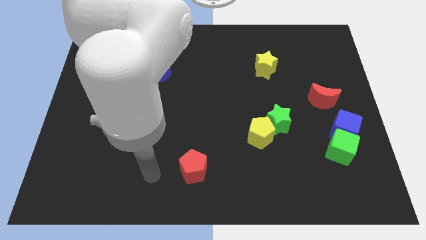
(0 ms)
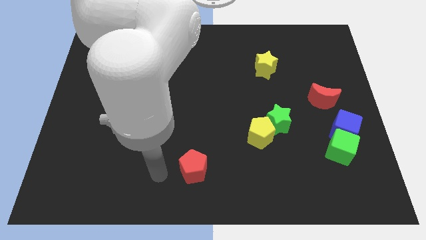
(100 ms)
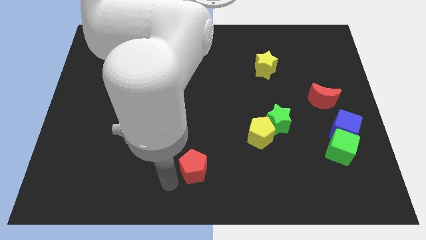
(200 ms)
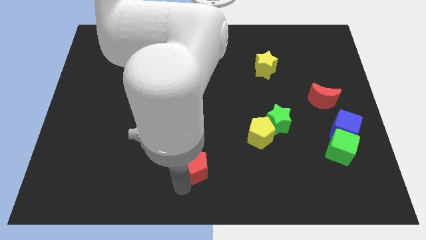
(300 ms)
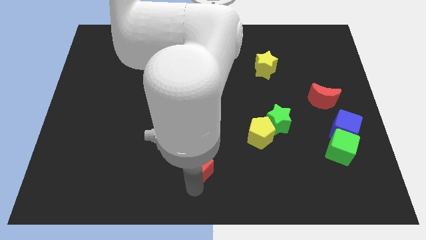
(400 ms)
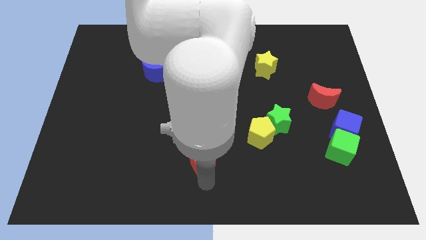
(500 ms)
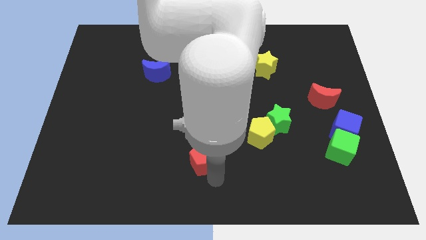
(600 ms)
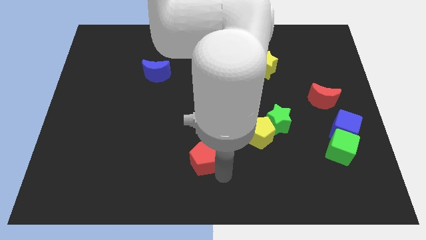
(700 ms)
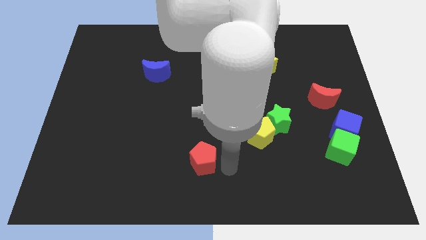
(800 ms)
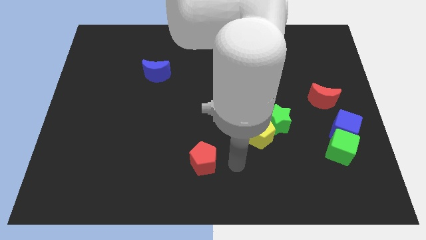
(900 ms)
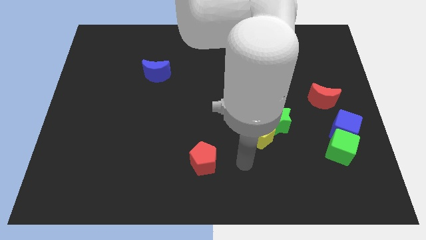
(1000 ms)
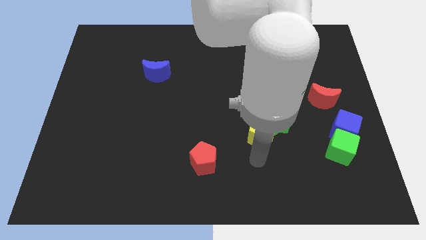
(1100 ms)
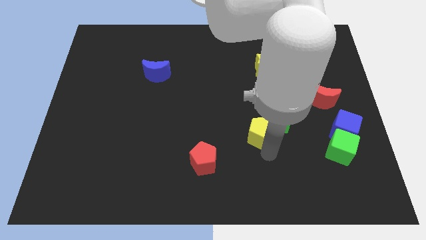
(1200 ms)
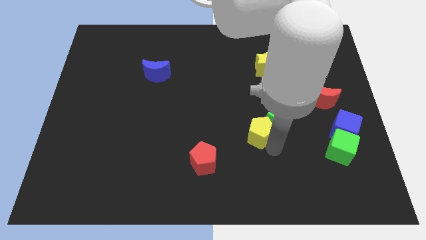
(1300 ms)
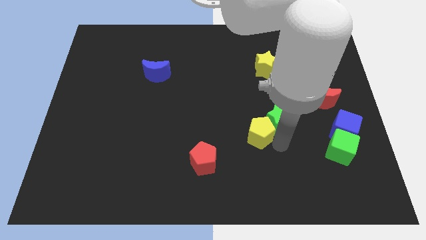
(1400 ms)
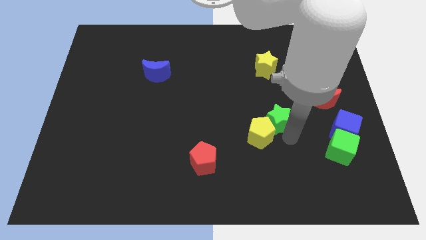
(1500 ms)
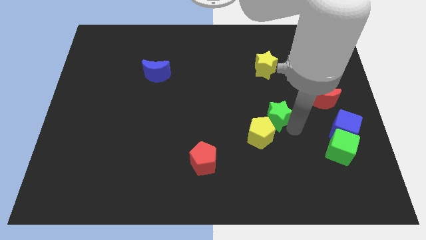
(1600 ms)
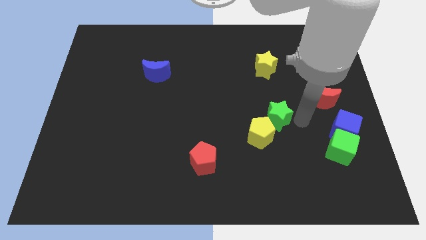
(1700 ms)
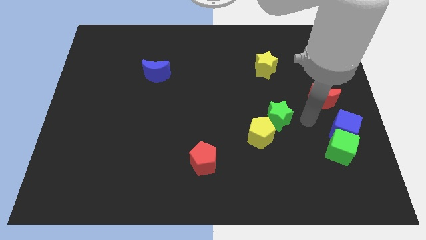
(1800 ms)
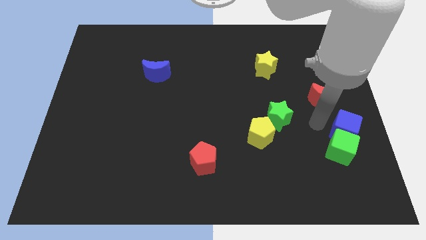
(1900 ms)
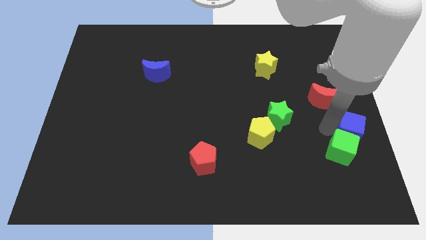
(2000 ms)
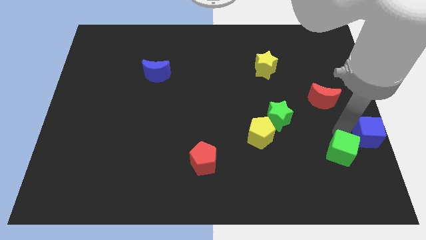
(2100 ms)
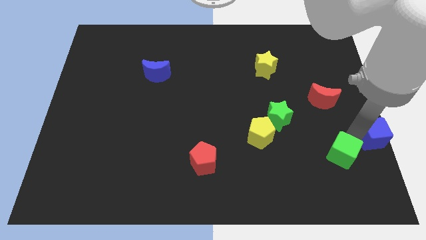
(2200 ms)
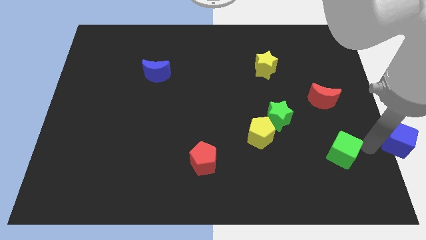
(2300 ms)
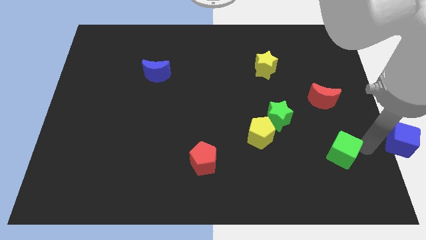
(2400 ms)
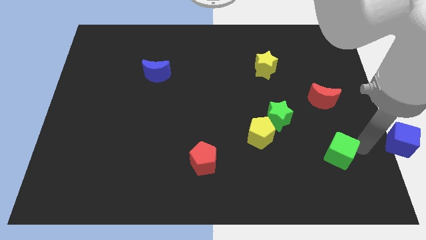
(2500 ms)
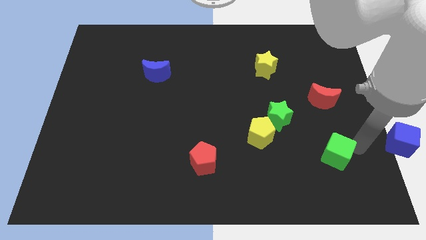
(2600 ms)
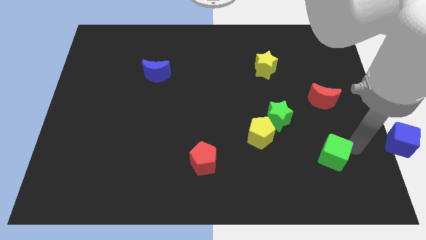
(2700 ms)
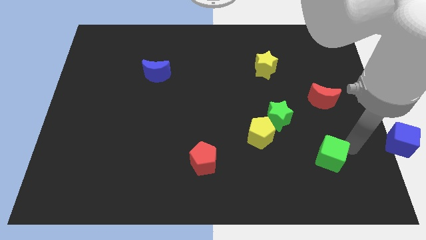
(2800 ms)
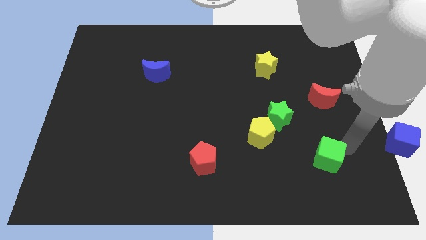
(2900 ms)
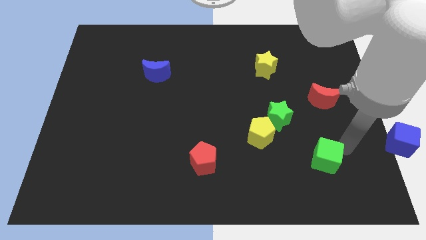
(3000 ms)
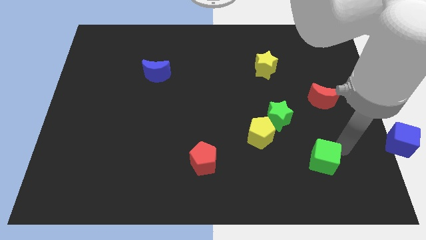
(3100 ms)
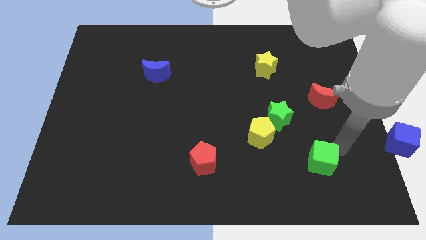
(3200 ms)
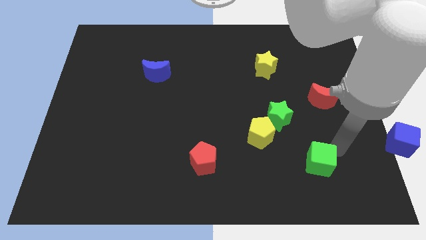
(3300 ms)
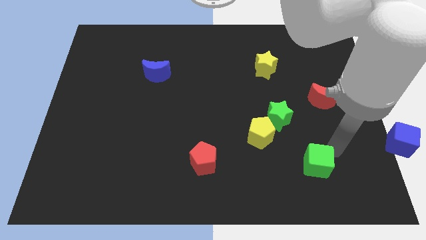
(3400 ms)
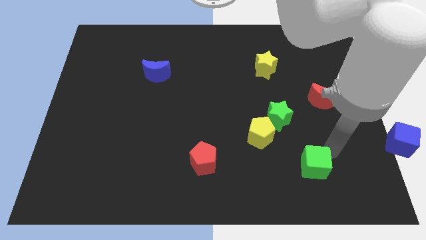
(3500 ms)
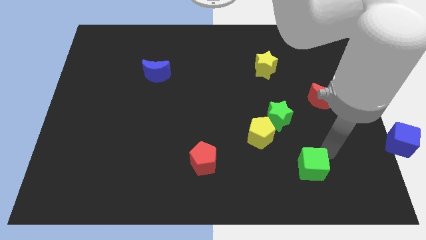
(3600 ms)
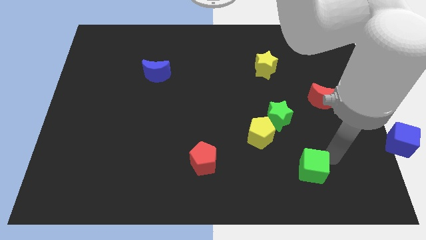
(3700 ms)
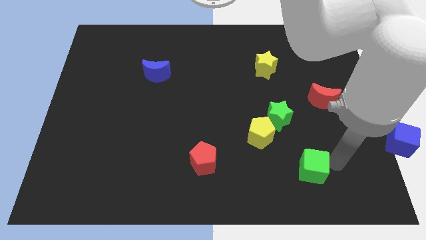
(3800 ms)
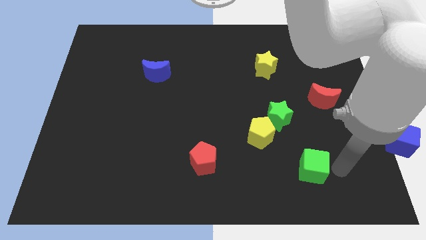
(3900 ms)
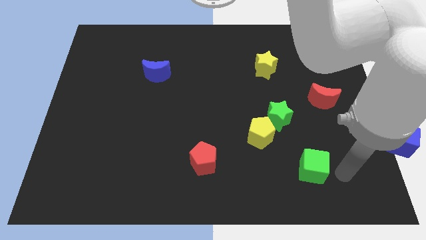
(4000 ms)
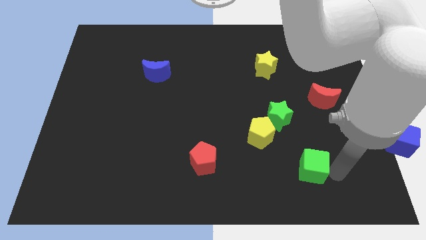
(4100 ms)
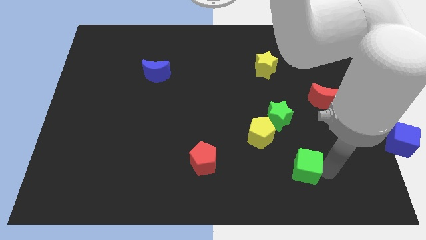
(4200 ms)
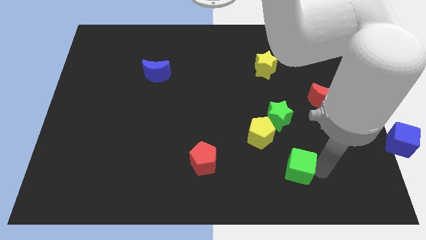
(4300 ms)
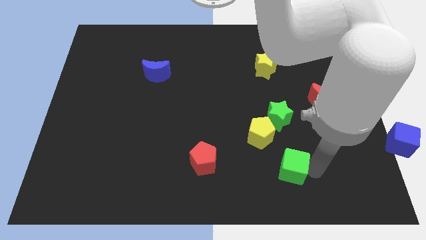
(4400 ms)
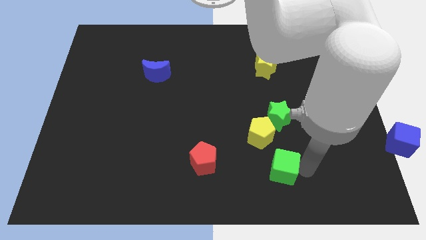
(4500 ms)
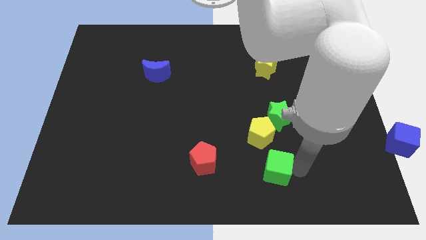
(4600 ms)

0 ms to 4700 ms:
push the green cube to the right of the red pentagon

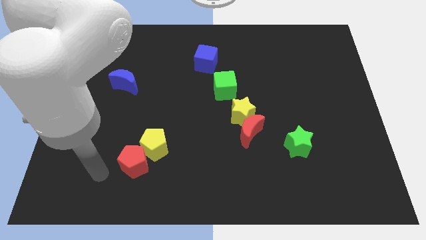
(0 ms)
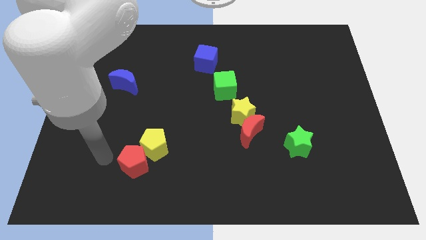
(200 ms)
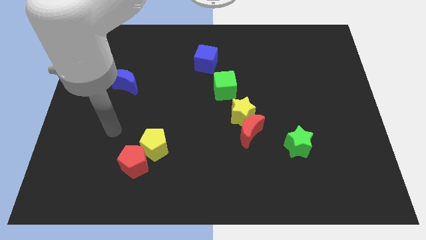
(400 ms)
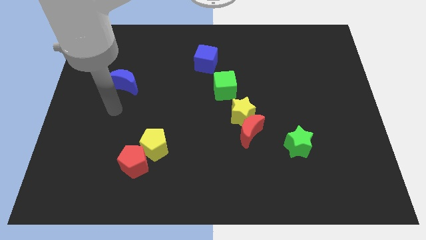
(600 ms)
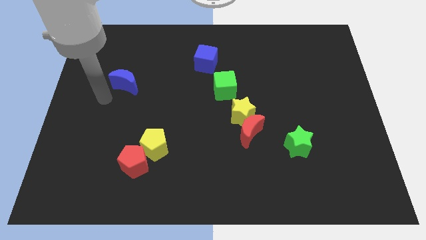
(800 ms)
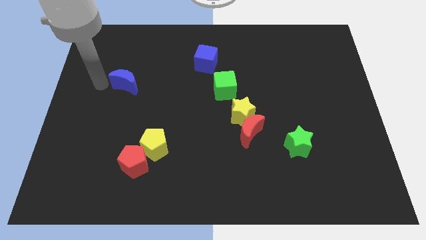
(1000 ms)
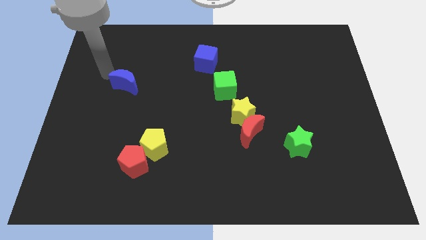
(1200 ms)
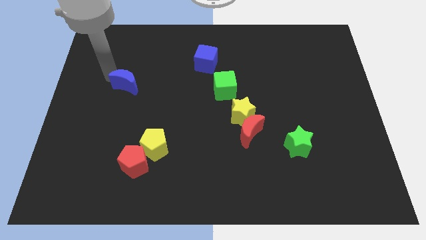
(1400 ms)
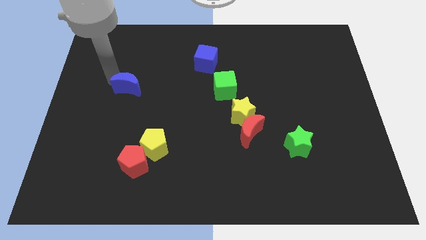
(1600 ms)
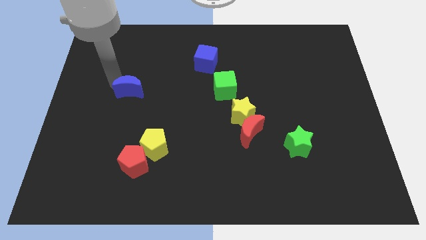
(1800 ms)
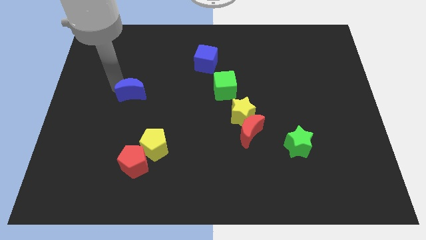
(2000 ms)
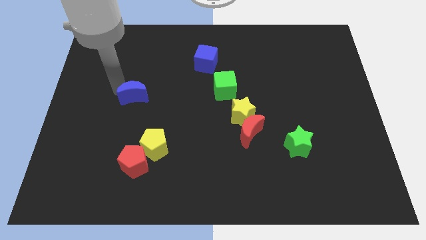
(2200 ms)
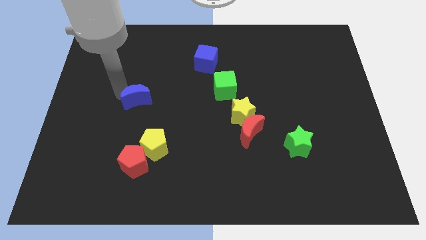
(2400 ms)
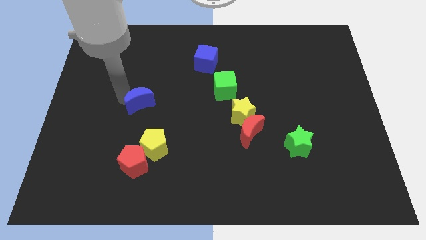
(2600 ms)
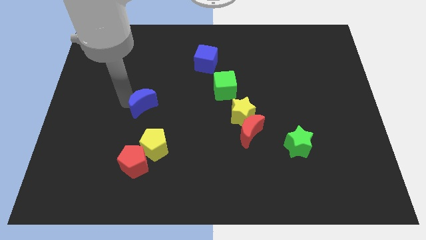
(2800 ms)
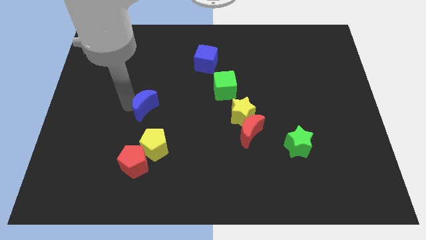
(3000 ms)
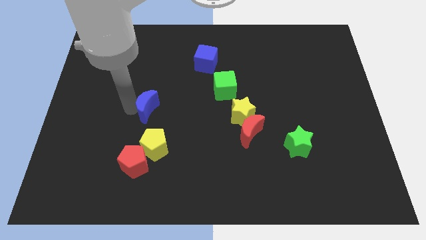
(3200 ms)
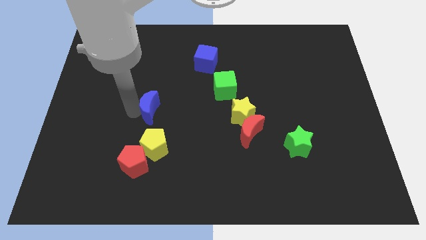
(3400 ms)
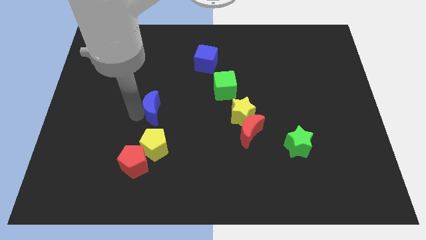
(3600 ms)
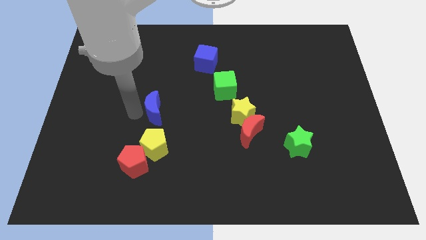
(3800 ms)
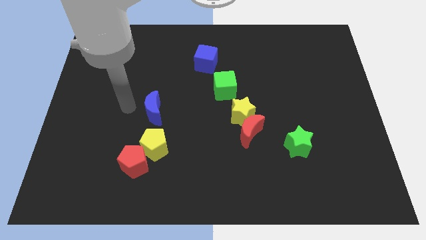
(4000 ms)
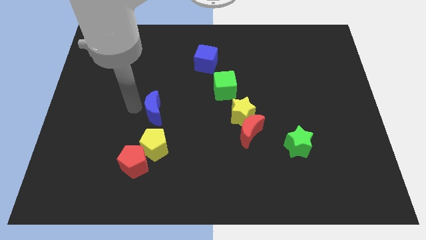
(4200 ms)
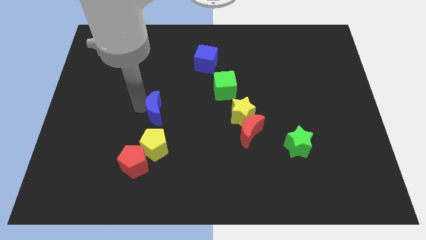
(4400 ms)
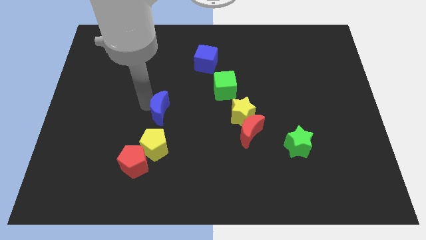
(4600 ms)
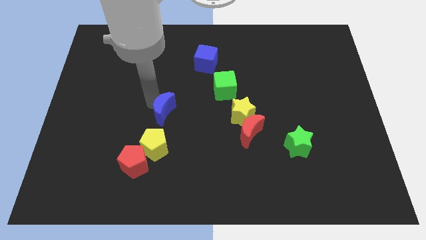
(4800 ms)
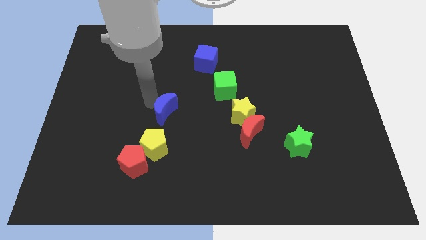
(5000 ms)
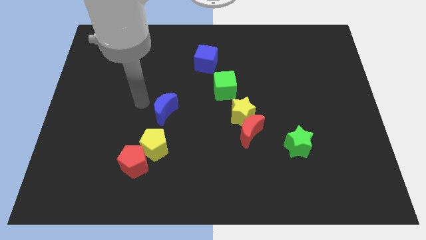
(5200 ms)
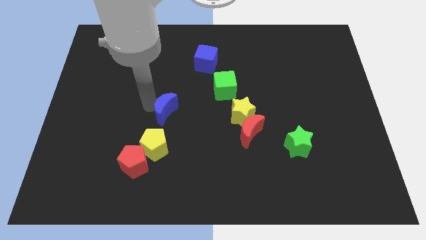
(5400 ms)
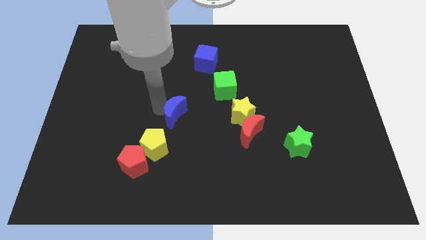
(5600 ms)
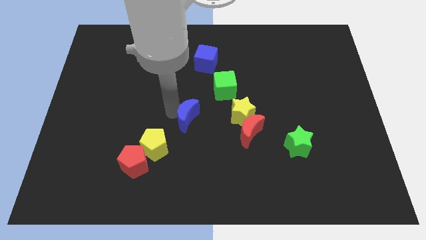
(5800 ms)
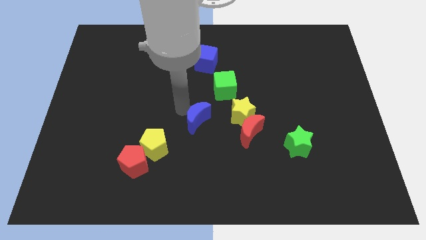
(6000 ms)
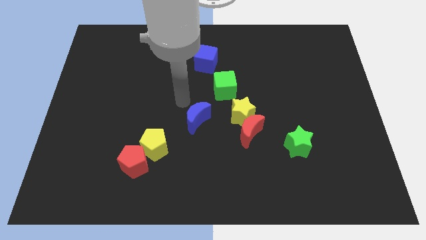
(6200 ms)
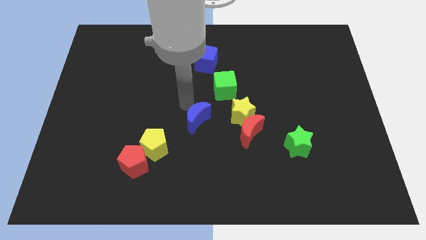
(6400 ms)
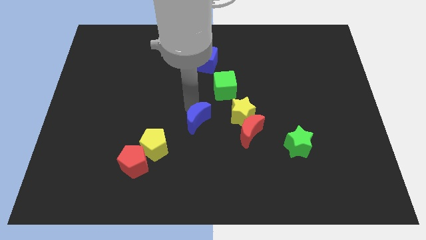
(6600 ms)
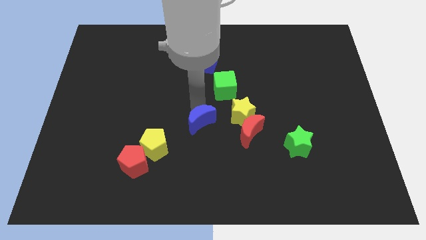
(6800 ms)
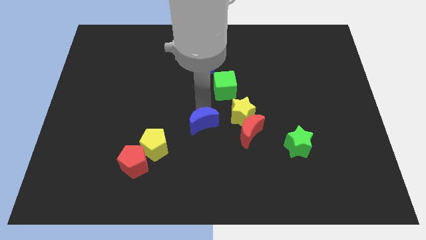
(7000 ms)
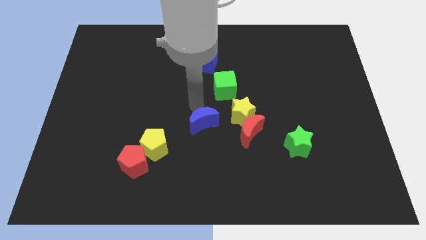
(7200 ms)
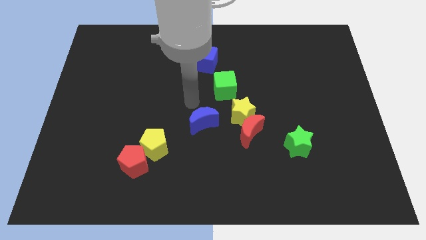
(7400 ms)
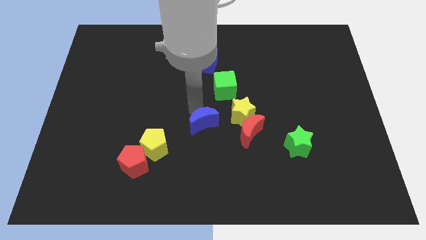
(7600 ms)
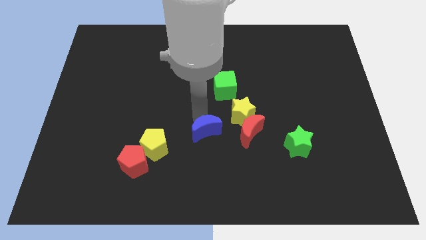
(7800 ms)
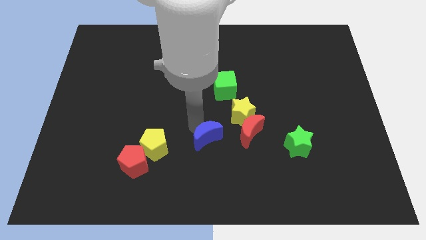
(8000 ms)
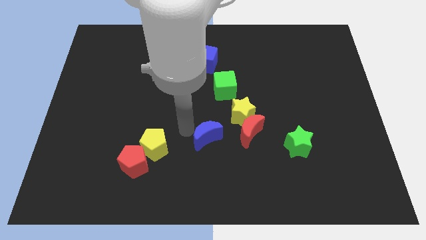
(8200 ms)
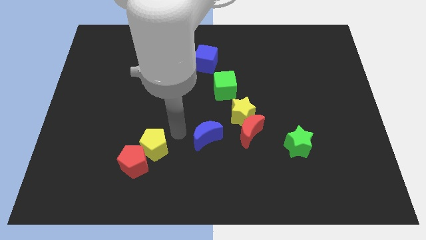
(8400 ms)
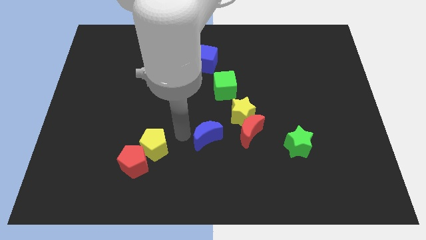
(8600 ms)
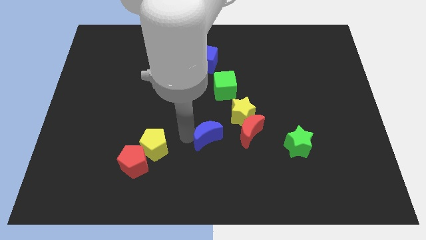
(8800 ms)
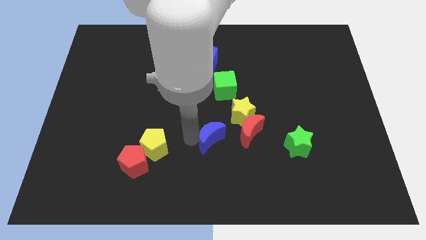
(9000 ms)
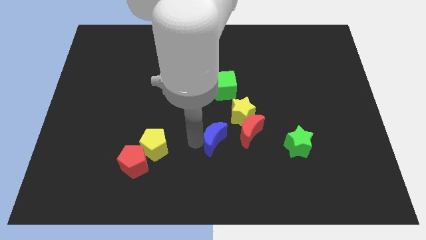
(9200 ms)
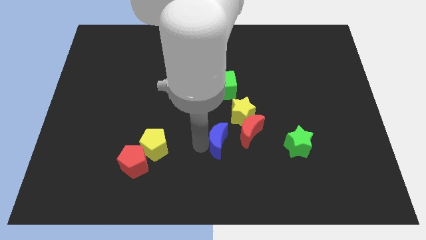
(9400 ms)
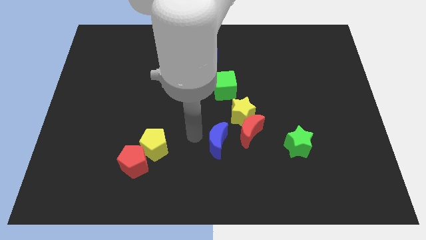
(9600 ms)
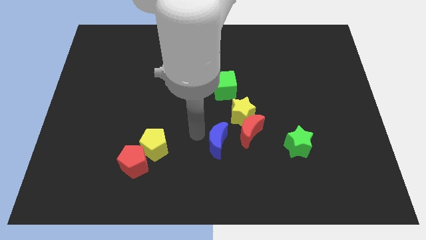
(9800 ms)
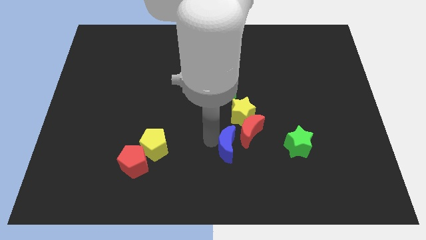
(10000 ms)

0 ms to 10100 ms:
move the blue moon to the bottom side of the yellow star
